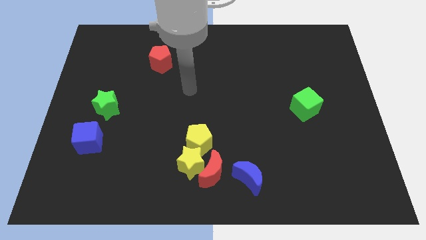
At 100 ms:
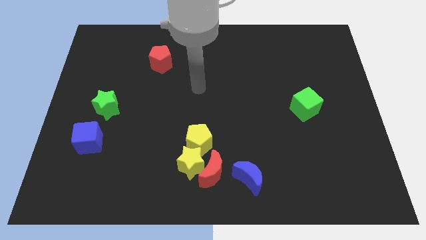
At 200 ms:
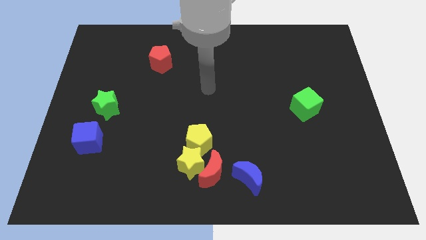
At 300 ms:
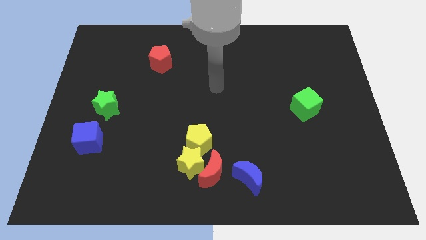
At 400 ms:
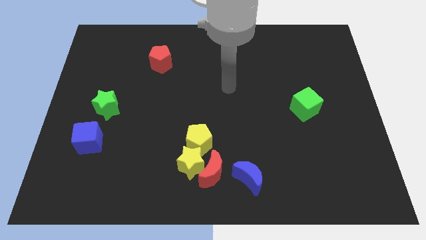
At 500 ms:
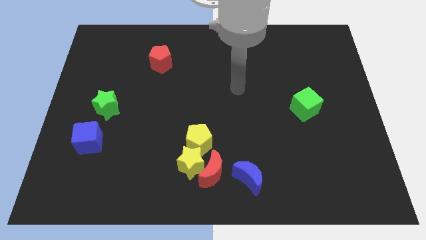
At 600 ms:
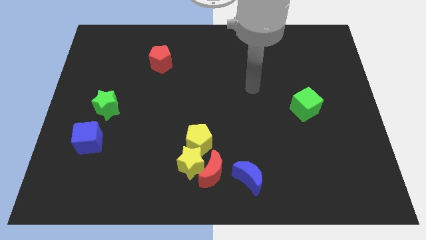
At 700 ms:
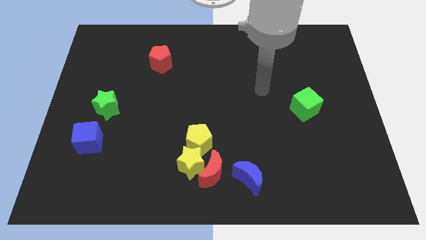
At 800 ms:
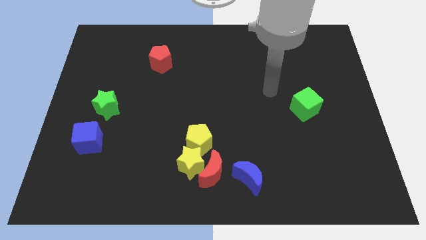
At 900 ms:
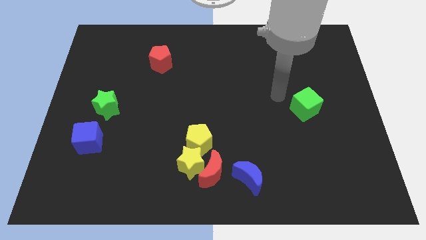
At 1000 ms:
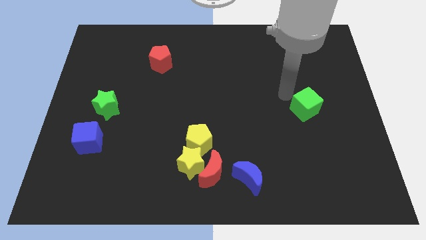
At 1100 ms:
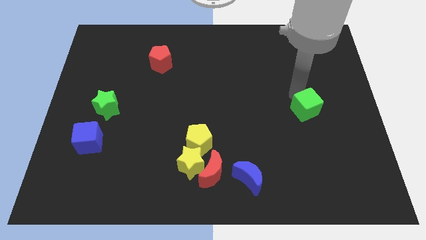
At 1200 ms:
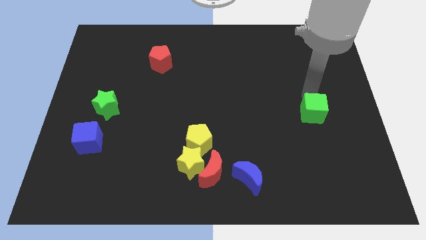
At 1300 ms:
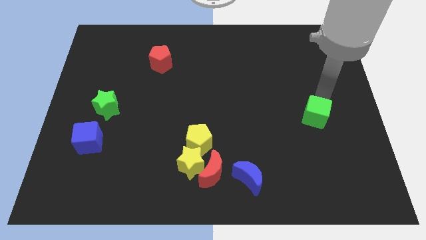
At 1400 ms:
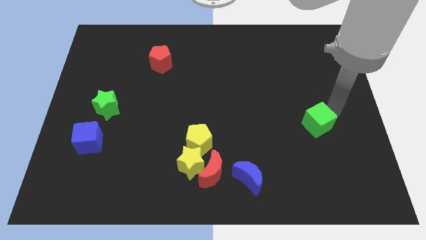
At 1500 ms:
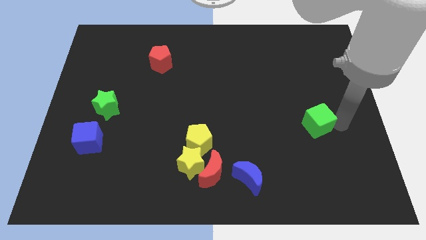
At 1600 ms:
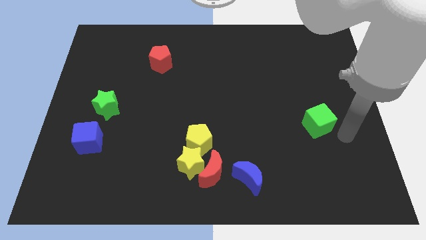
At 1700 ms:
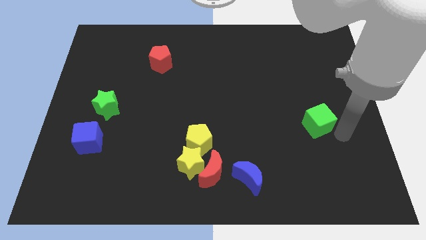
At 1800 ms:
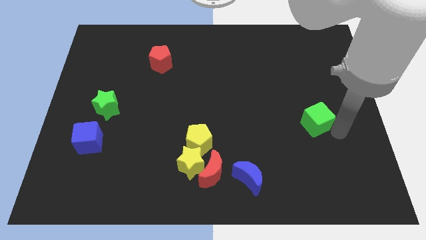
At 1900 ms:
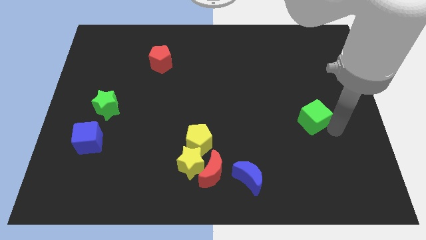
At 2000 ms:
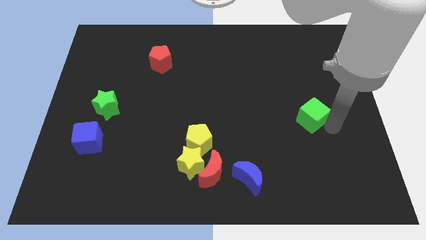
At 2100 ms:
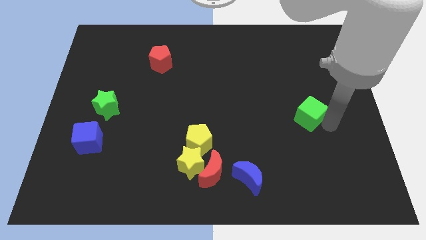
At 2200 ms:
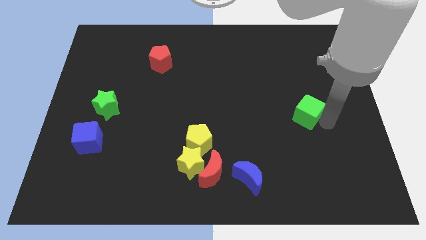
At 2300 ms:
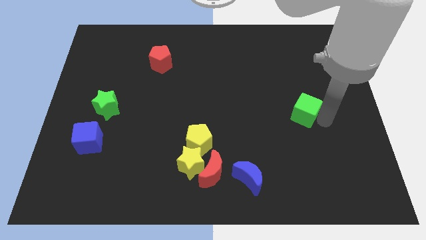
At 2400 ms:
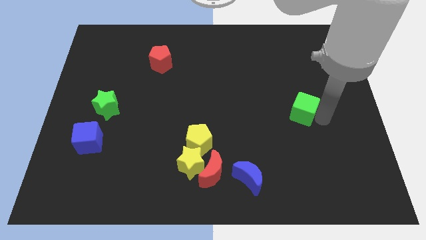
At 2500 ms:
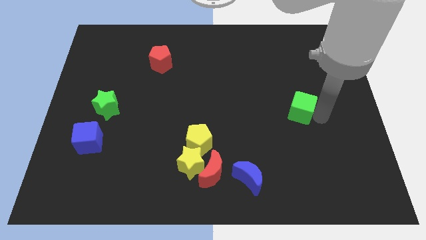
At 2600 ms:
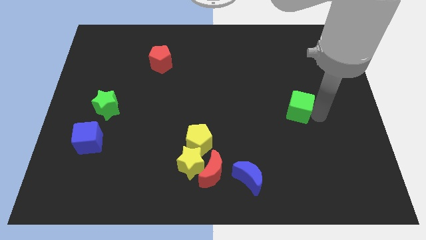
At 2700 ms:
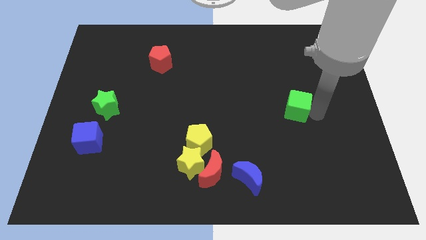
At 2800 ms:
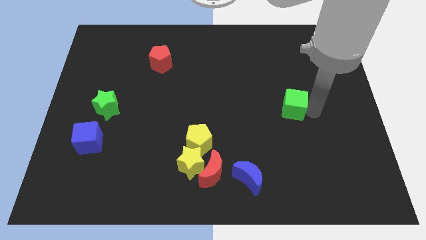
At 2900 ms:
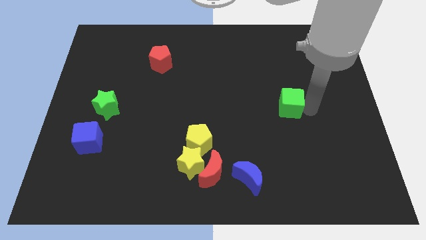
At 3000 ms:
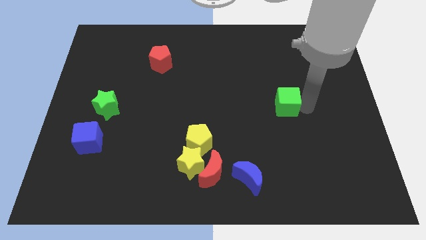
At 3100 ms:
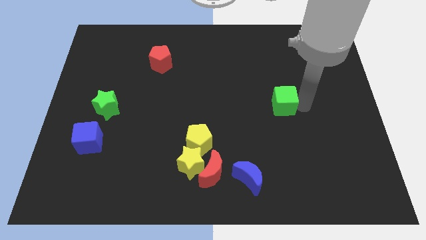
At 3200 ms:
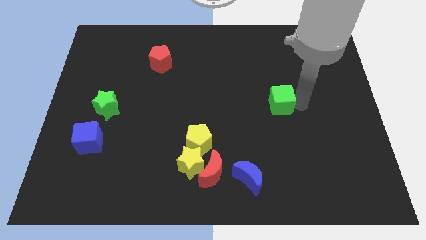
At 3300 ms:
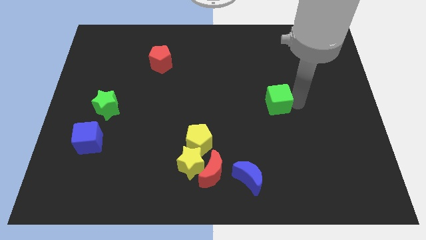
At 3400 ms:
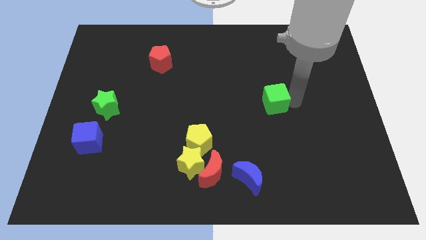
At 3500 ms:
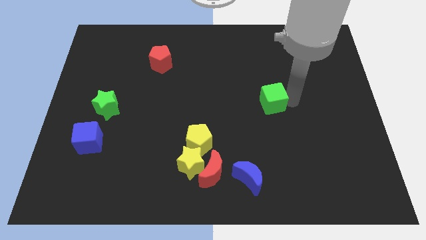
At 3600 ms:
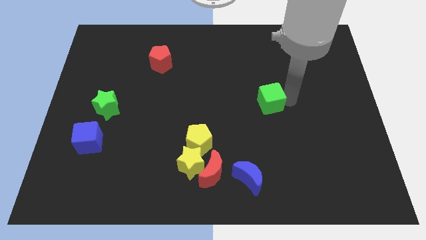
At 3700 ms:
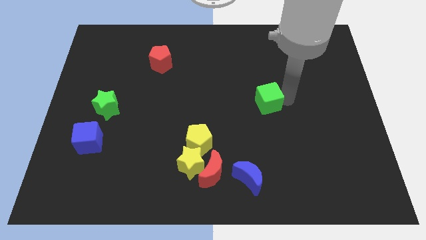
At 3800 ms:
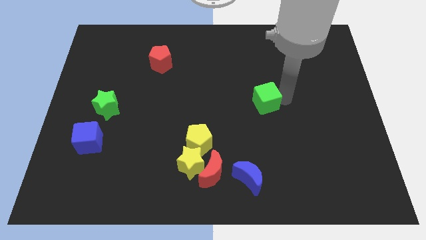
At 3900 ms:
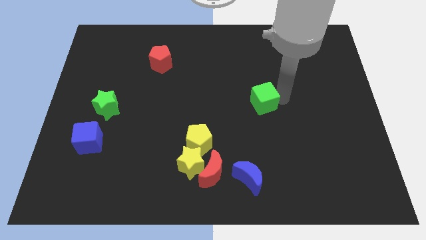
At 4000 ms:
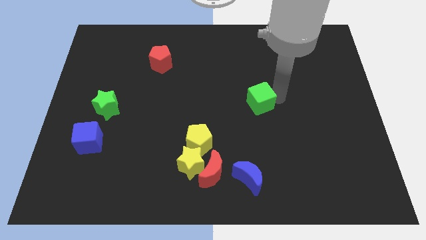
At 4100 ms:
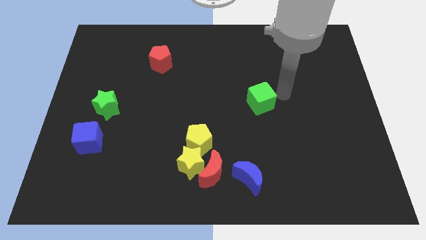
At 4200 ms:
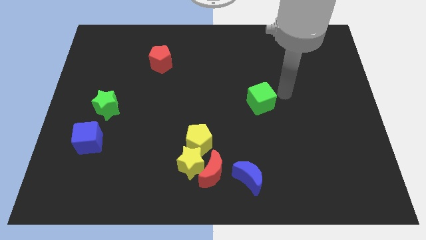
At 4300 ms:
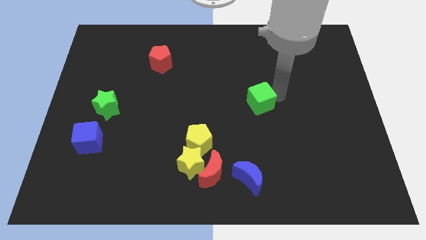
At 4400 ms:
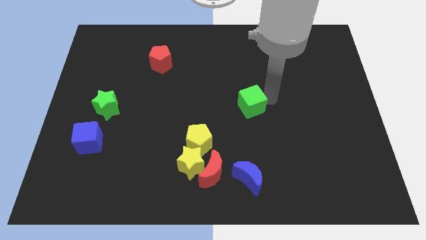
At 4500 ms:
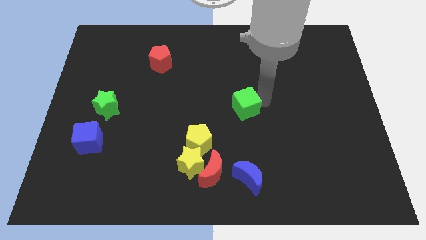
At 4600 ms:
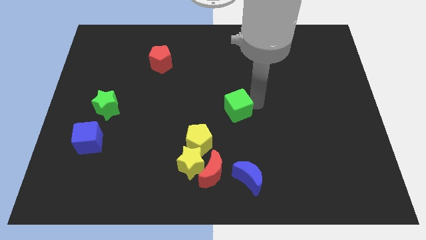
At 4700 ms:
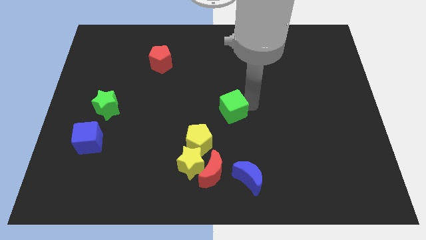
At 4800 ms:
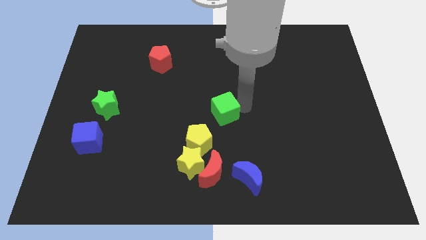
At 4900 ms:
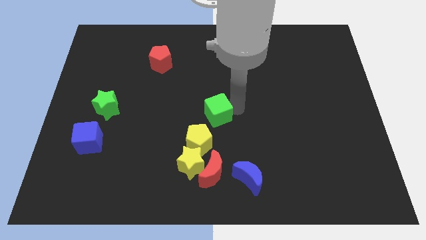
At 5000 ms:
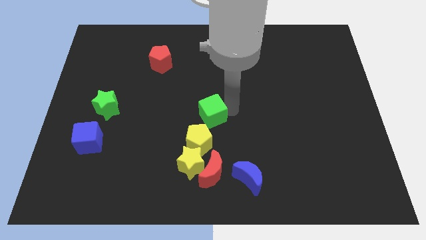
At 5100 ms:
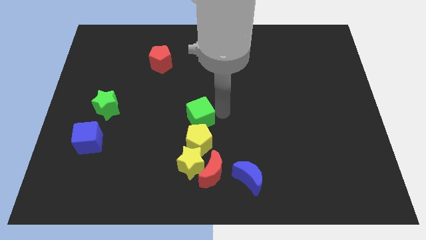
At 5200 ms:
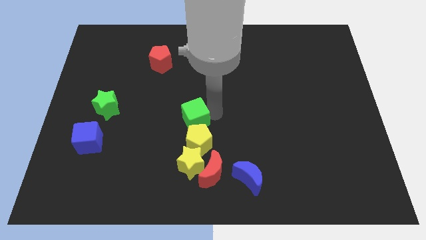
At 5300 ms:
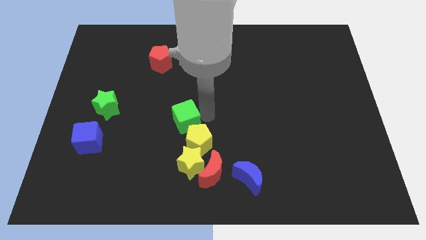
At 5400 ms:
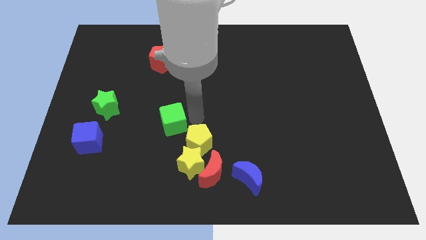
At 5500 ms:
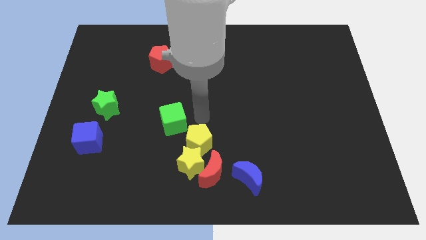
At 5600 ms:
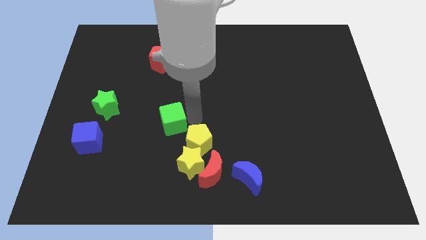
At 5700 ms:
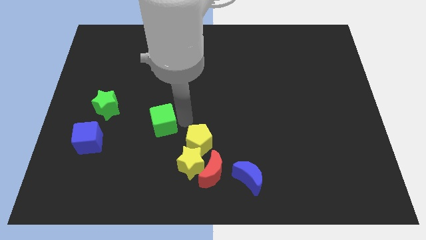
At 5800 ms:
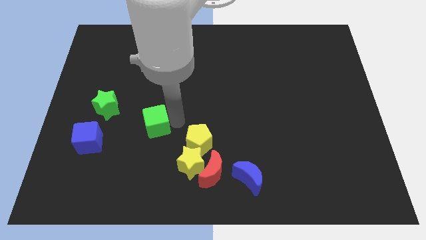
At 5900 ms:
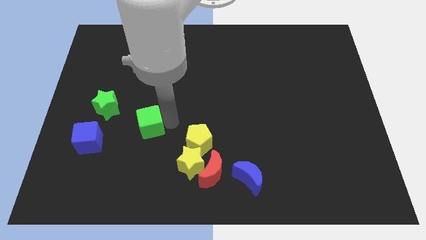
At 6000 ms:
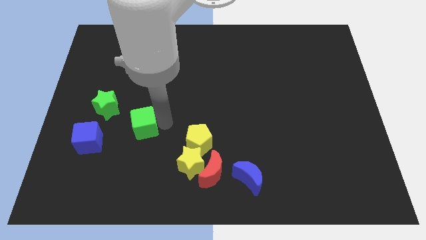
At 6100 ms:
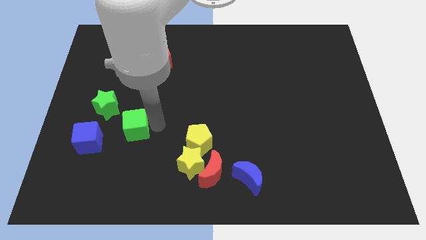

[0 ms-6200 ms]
push the green cube to the top right side of the blue cube

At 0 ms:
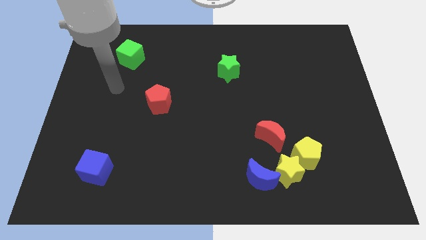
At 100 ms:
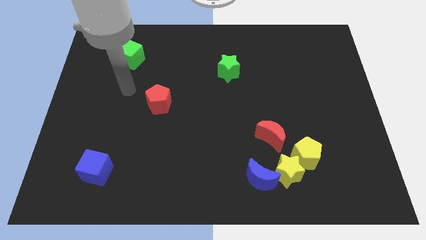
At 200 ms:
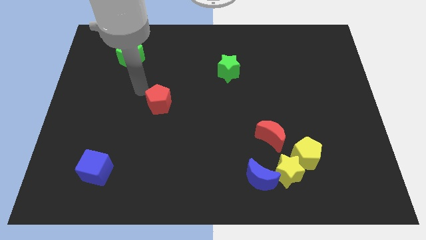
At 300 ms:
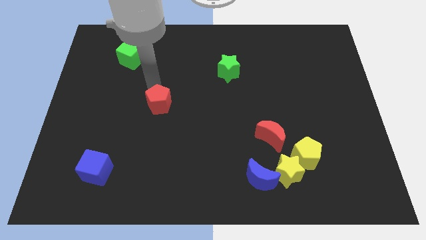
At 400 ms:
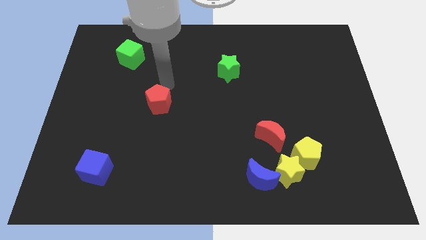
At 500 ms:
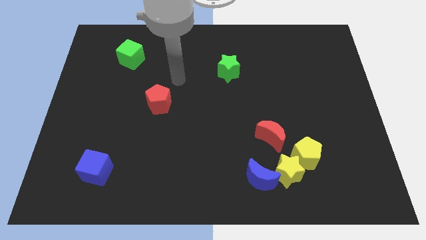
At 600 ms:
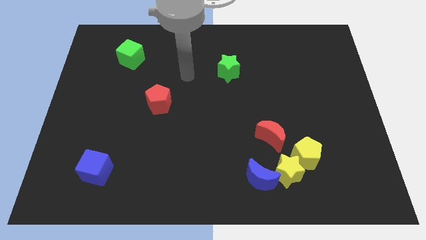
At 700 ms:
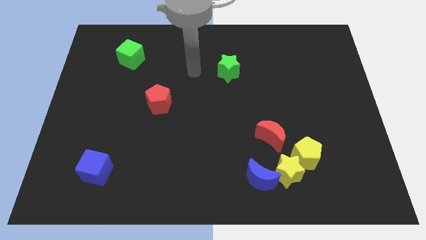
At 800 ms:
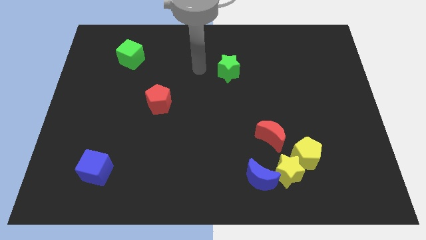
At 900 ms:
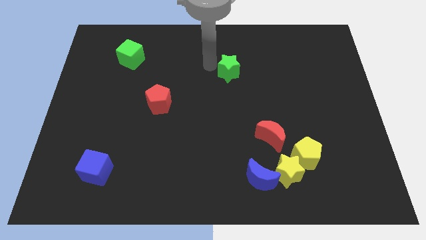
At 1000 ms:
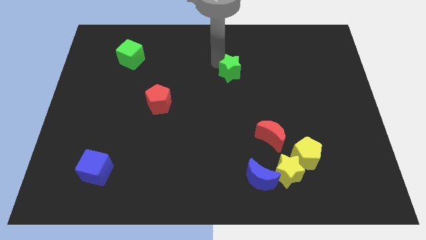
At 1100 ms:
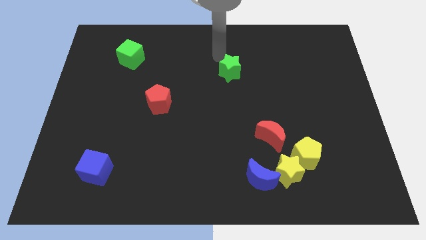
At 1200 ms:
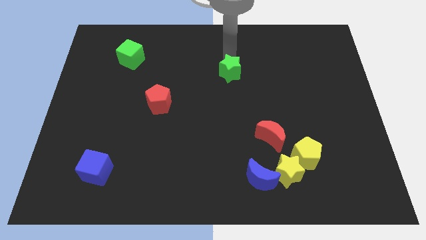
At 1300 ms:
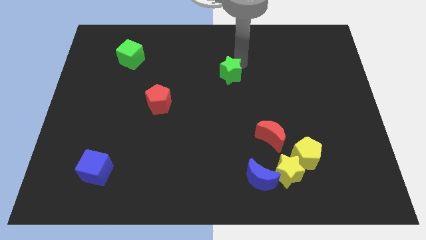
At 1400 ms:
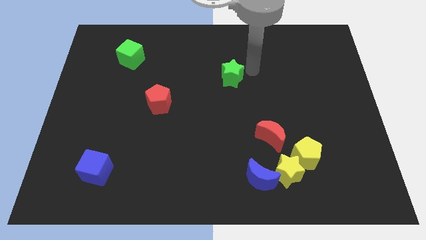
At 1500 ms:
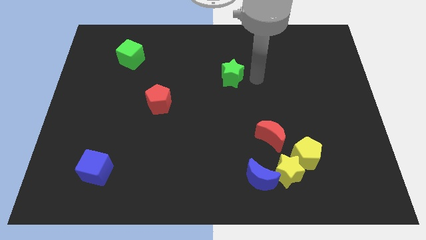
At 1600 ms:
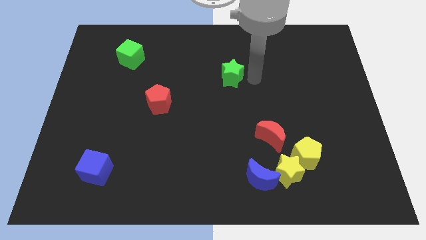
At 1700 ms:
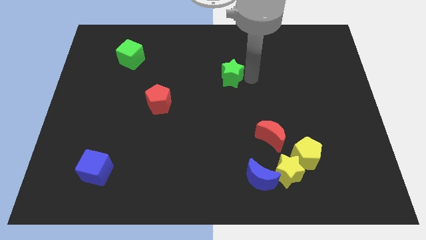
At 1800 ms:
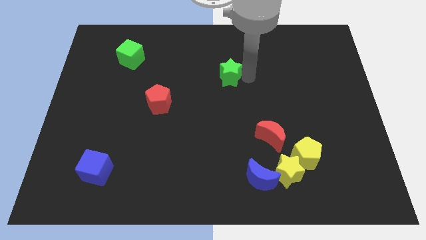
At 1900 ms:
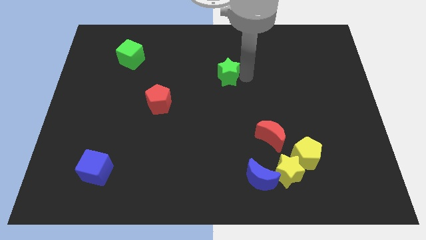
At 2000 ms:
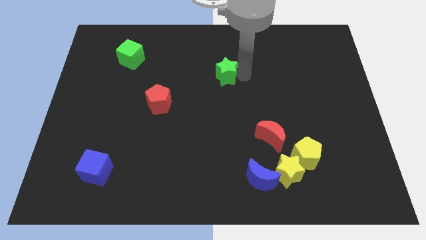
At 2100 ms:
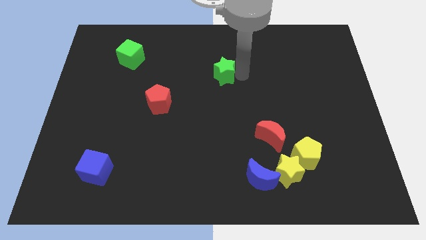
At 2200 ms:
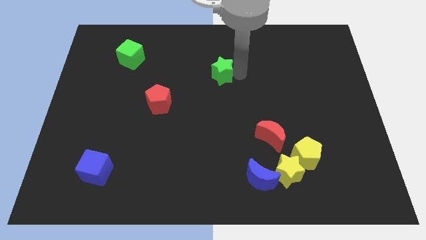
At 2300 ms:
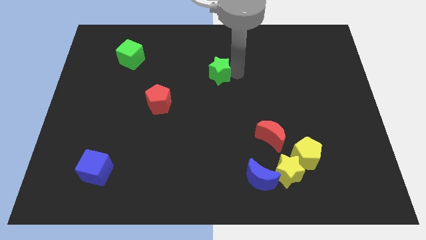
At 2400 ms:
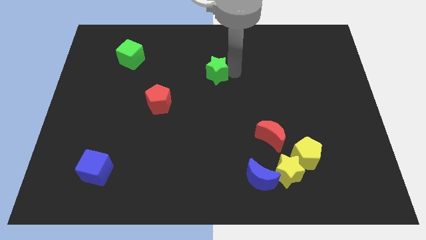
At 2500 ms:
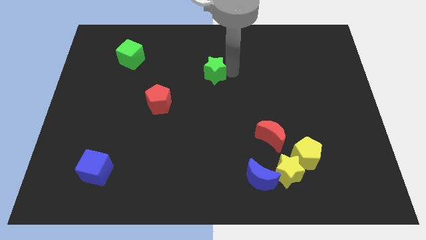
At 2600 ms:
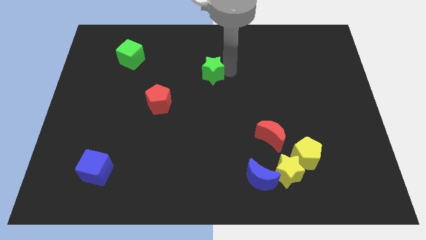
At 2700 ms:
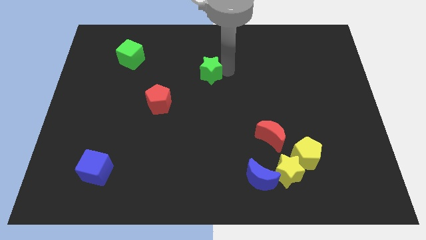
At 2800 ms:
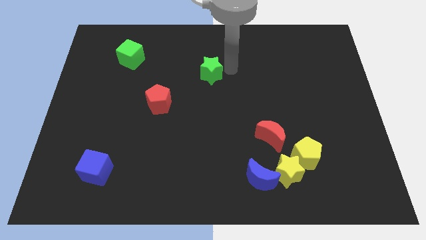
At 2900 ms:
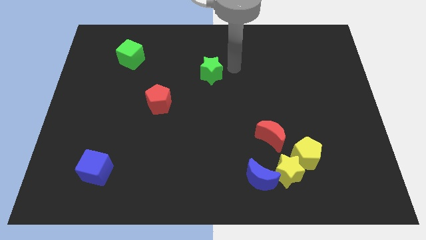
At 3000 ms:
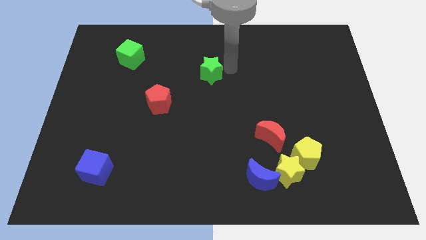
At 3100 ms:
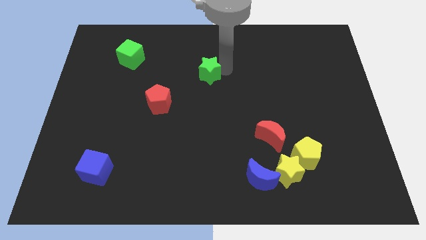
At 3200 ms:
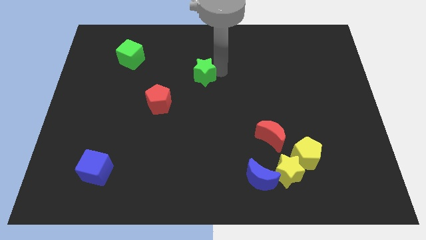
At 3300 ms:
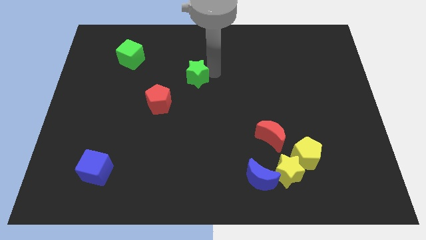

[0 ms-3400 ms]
put the green star to the top right side of the red pentagon
